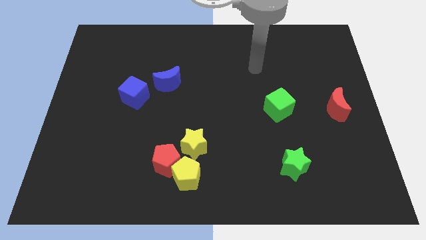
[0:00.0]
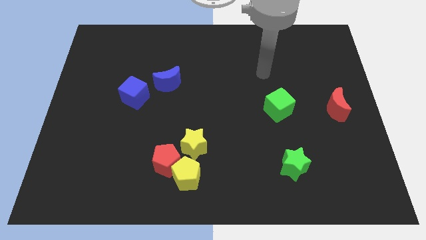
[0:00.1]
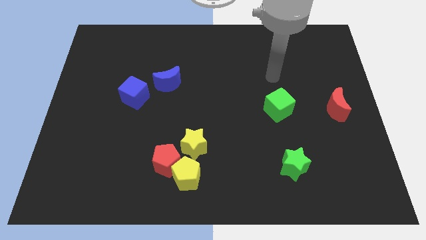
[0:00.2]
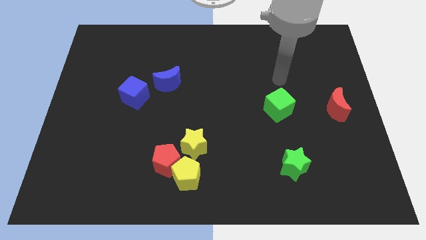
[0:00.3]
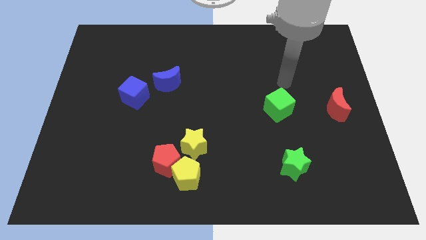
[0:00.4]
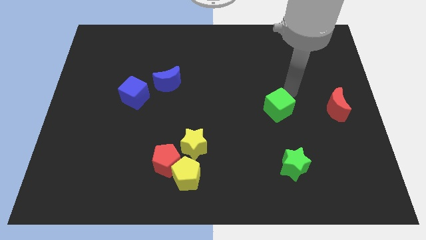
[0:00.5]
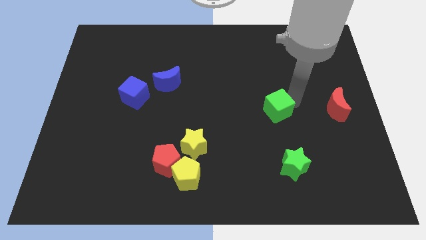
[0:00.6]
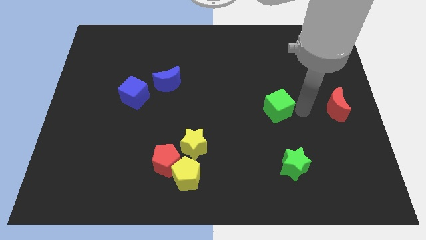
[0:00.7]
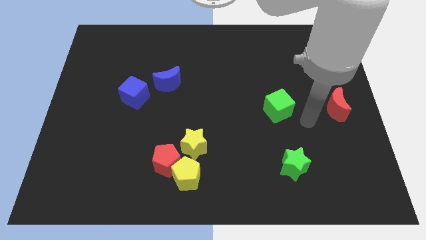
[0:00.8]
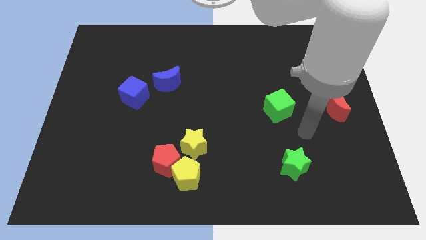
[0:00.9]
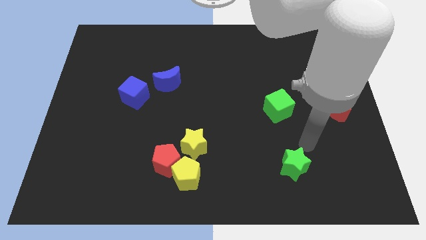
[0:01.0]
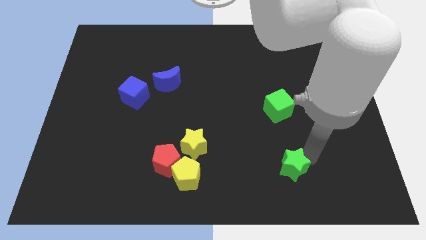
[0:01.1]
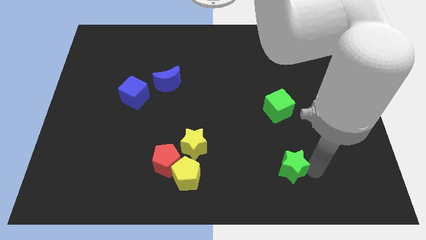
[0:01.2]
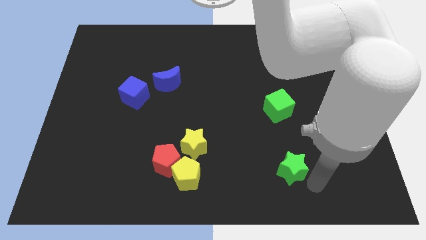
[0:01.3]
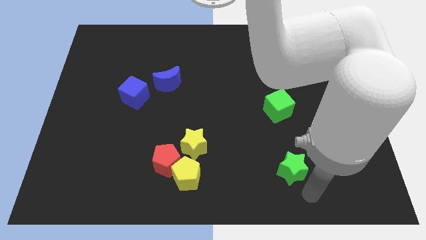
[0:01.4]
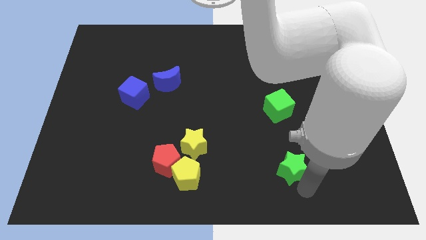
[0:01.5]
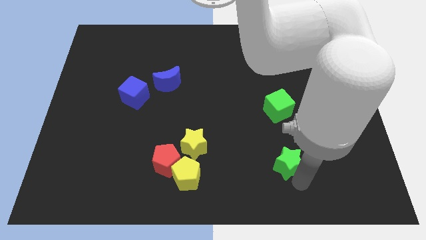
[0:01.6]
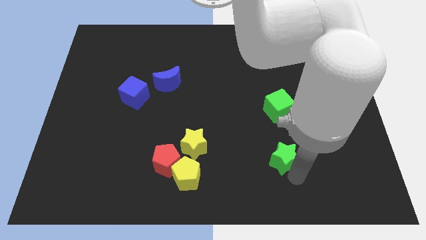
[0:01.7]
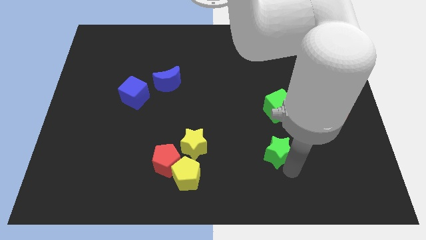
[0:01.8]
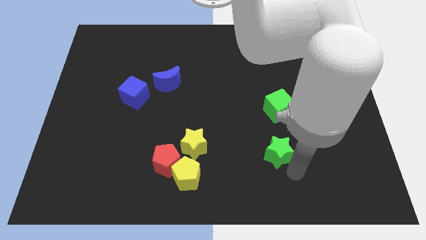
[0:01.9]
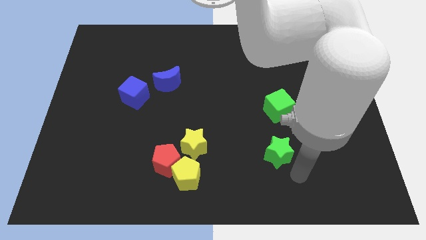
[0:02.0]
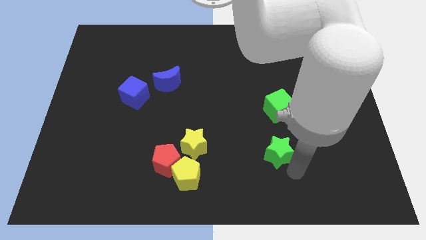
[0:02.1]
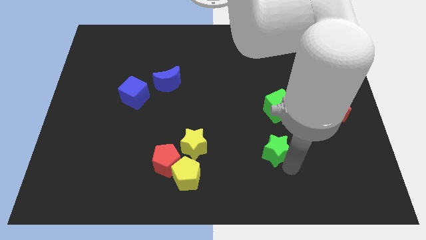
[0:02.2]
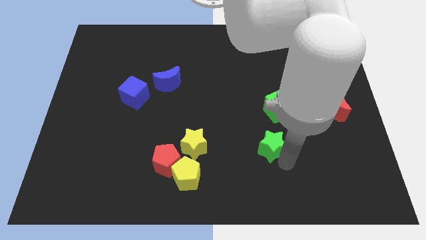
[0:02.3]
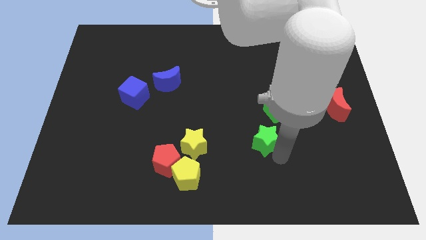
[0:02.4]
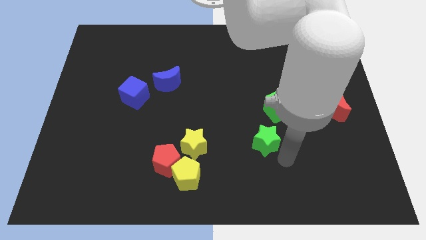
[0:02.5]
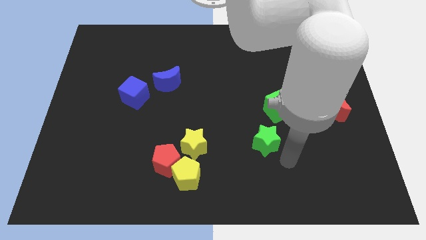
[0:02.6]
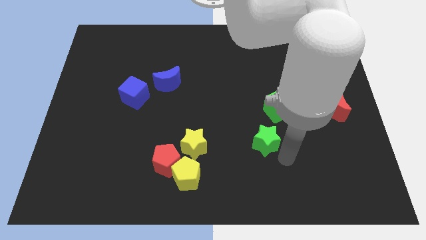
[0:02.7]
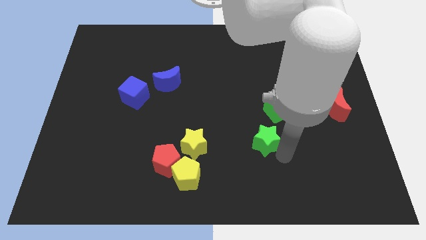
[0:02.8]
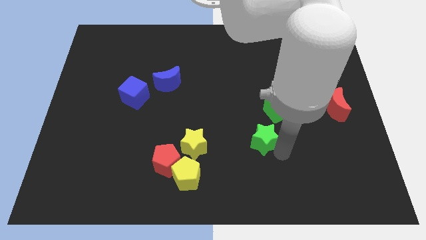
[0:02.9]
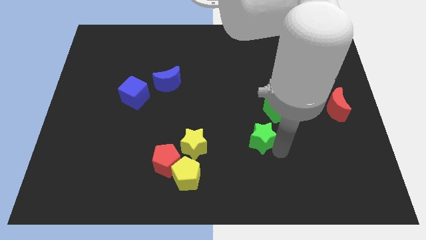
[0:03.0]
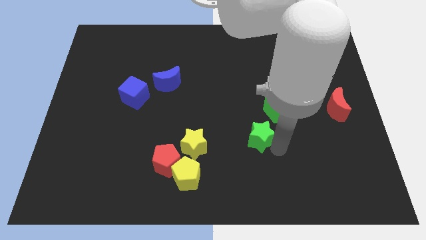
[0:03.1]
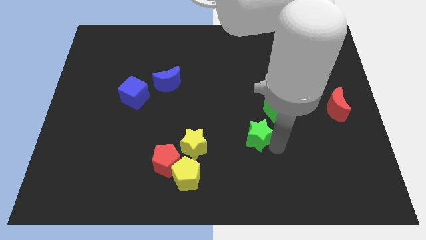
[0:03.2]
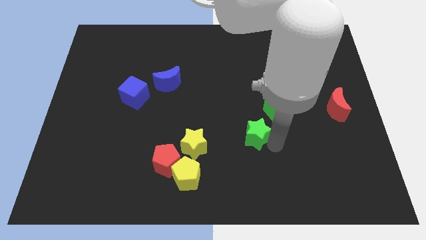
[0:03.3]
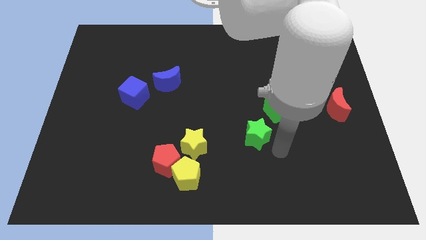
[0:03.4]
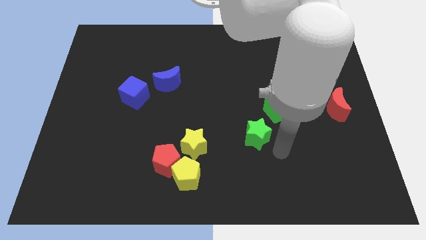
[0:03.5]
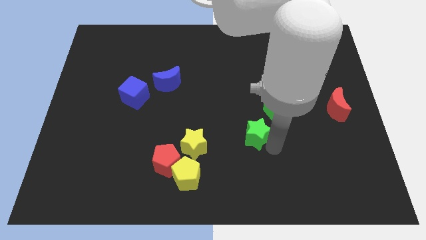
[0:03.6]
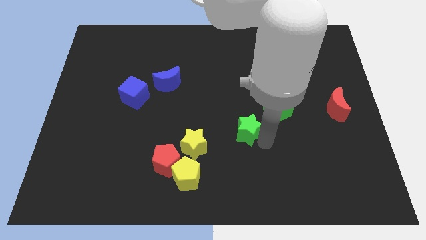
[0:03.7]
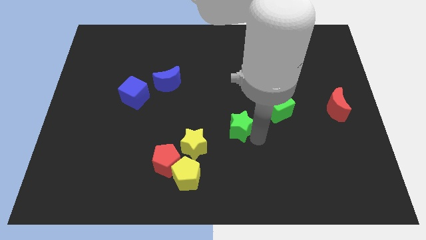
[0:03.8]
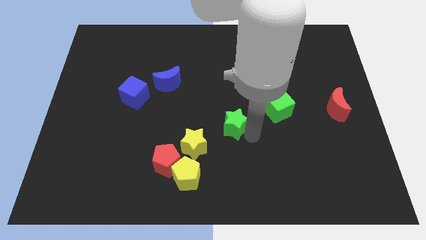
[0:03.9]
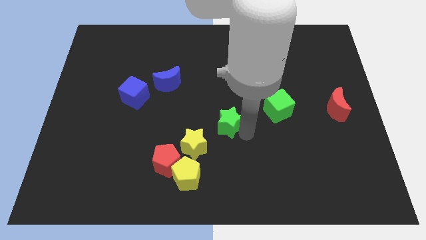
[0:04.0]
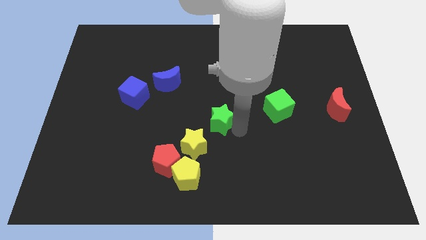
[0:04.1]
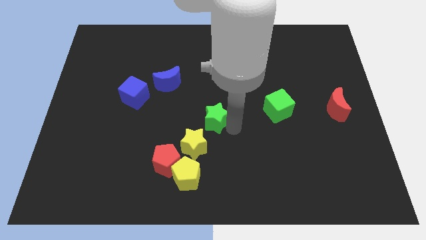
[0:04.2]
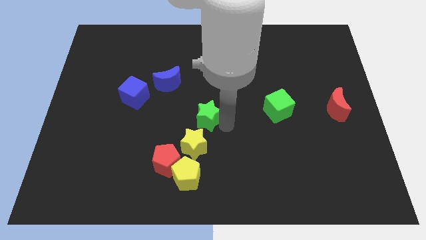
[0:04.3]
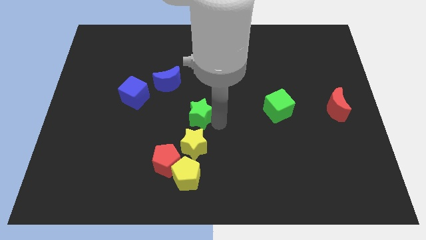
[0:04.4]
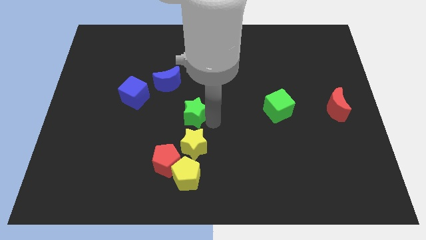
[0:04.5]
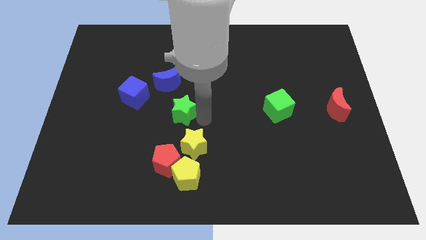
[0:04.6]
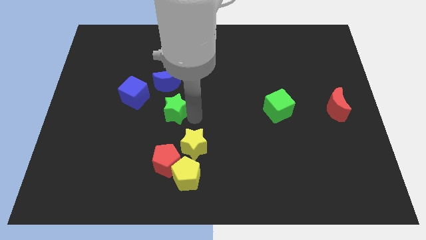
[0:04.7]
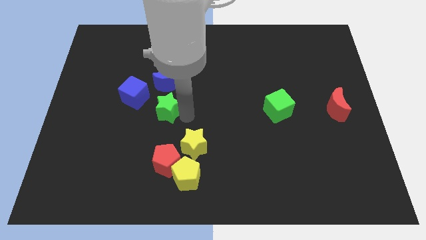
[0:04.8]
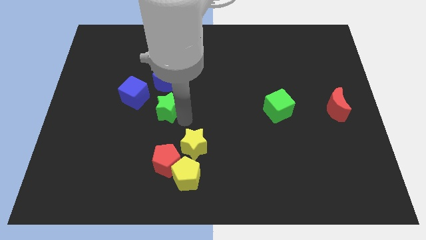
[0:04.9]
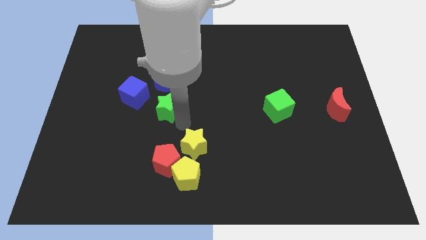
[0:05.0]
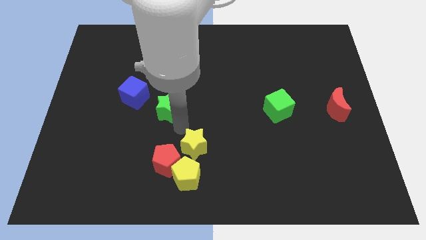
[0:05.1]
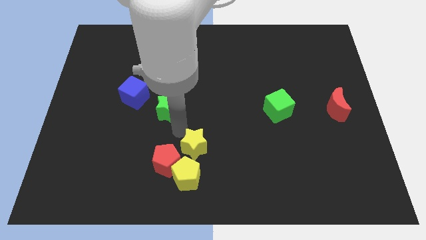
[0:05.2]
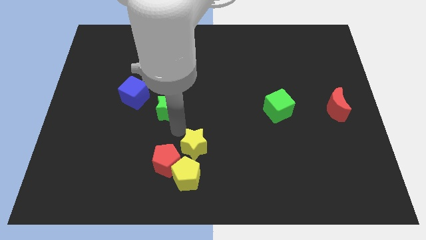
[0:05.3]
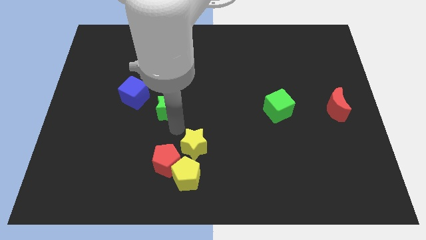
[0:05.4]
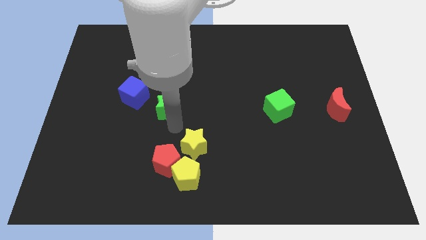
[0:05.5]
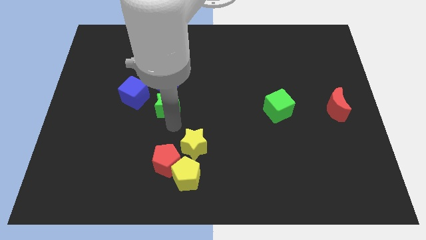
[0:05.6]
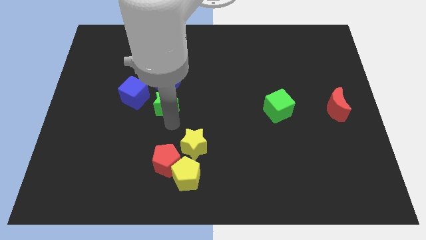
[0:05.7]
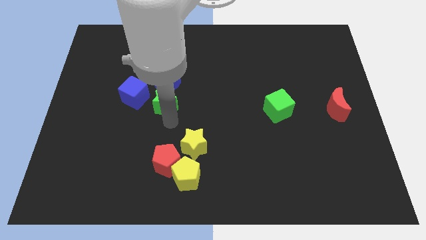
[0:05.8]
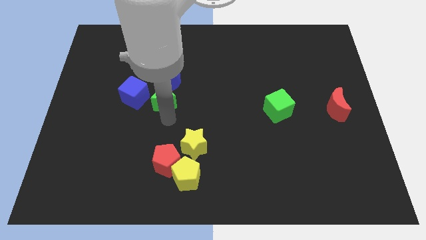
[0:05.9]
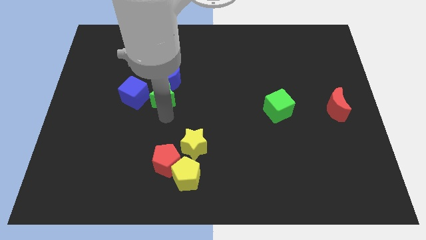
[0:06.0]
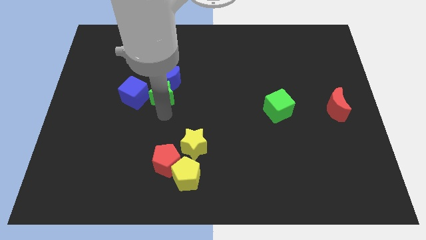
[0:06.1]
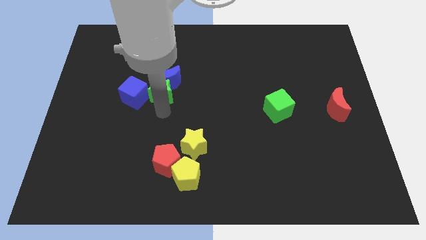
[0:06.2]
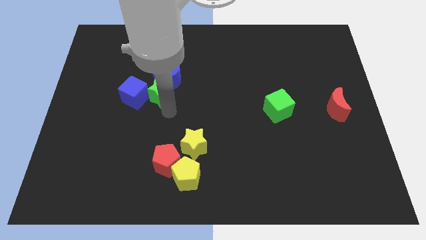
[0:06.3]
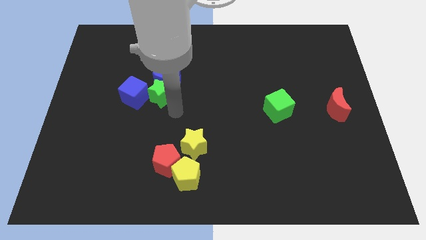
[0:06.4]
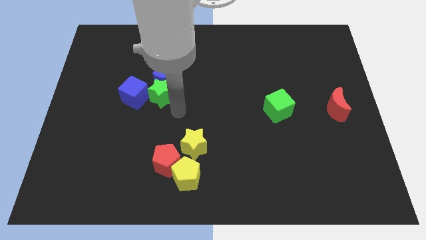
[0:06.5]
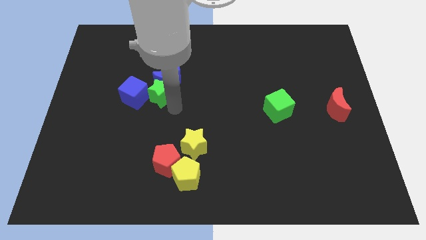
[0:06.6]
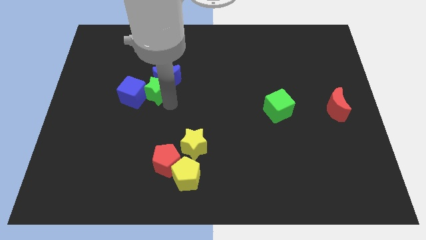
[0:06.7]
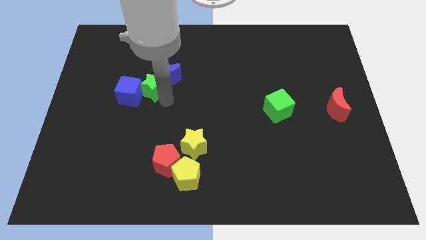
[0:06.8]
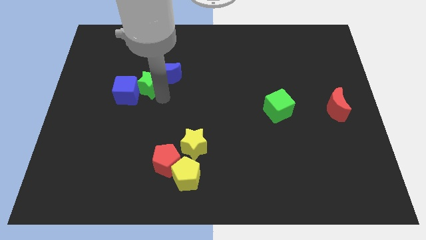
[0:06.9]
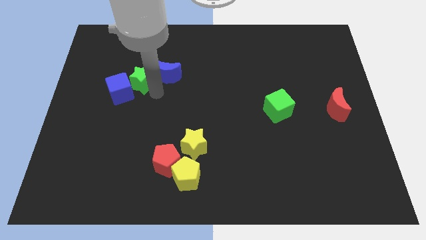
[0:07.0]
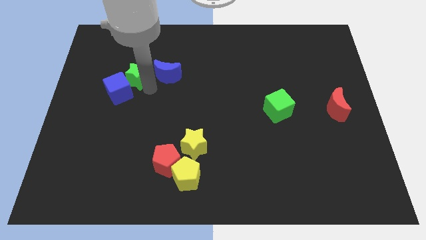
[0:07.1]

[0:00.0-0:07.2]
put the green star above the blue cube

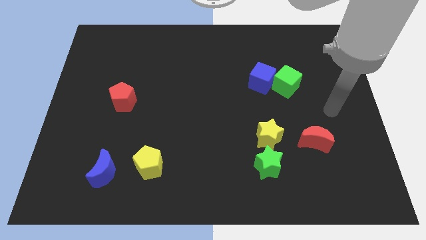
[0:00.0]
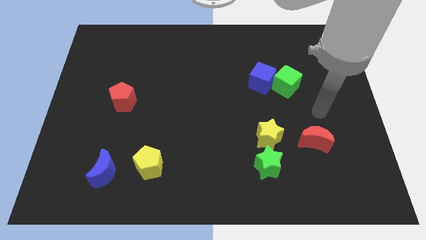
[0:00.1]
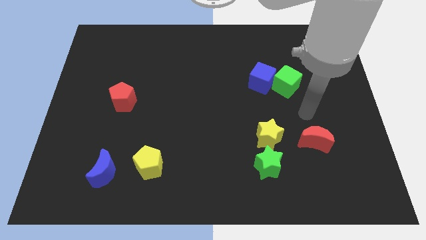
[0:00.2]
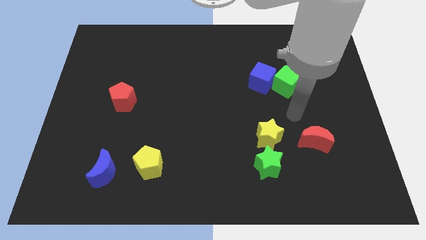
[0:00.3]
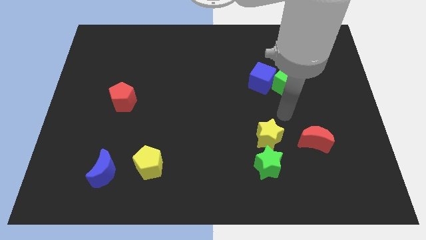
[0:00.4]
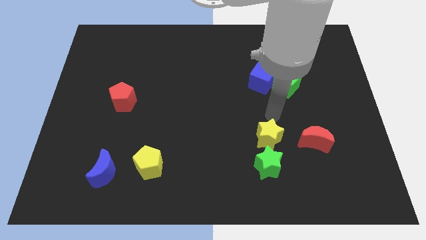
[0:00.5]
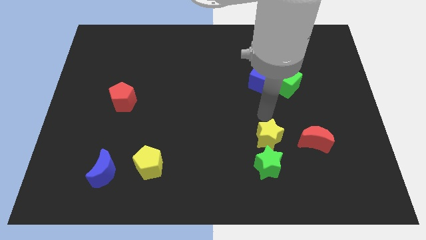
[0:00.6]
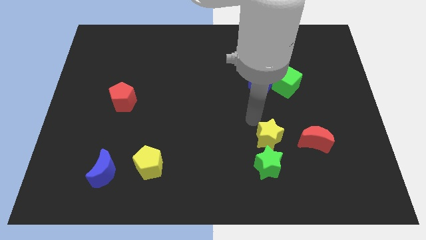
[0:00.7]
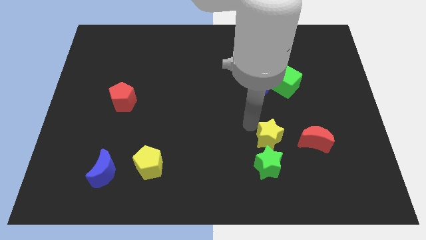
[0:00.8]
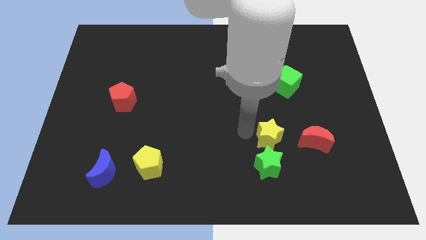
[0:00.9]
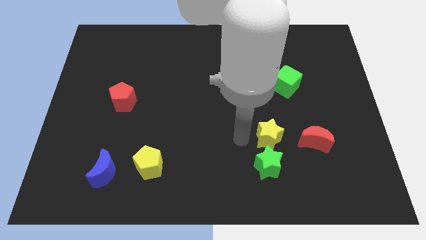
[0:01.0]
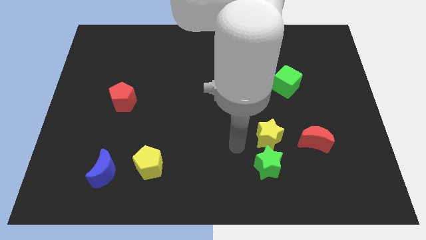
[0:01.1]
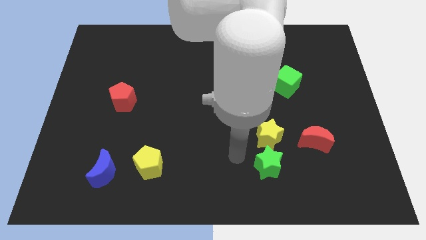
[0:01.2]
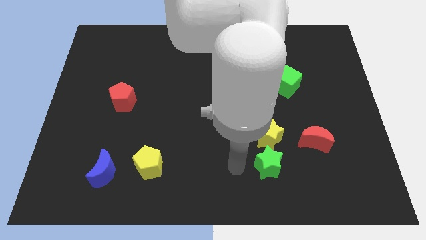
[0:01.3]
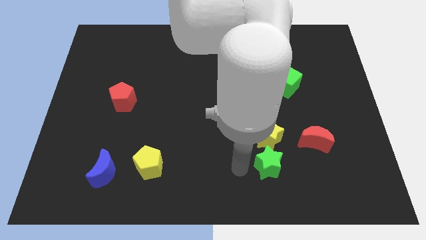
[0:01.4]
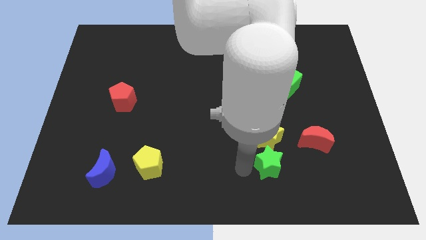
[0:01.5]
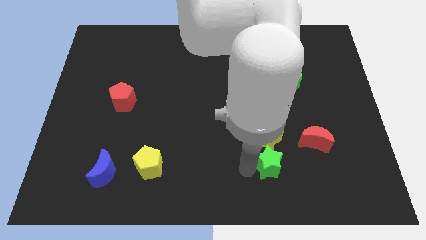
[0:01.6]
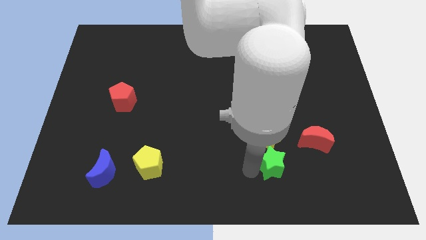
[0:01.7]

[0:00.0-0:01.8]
push the green star diagonally down and to the left of the red moon
